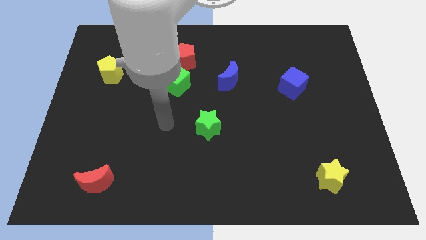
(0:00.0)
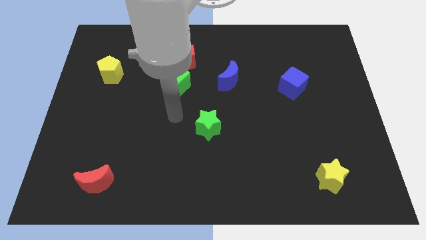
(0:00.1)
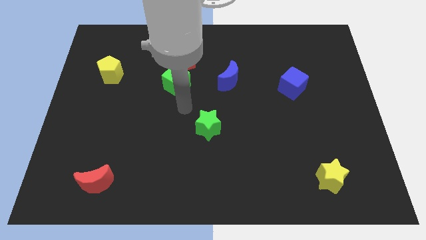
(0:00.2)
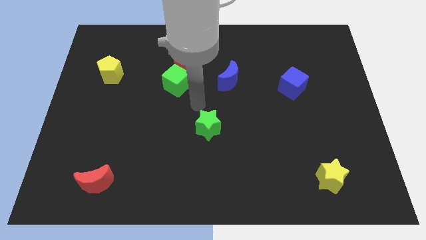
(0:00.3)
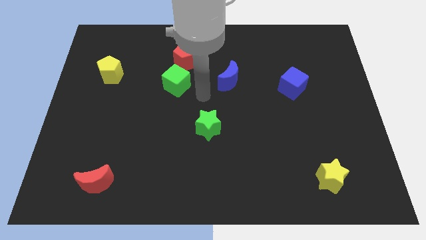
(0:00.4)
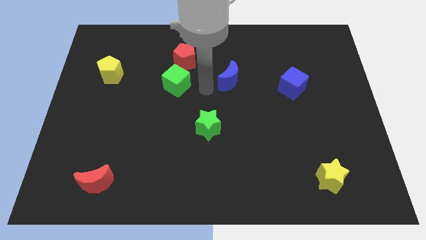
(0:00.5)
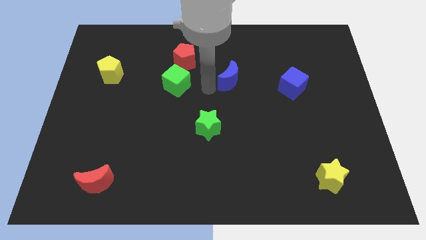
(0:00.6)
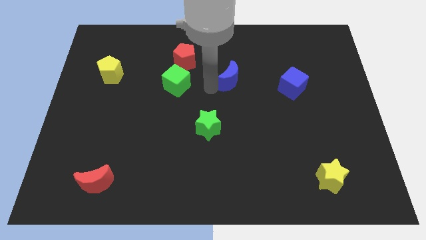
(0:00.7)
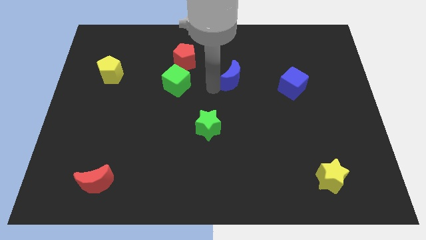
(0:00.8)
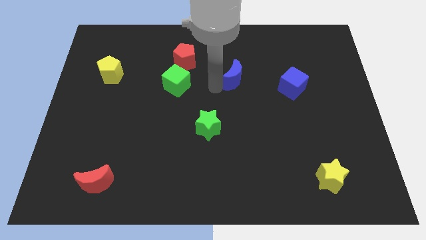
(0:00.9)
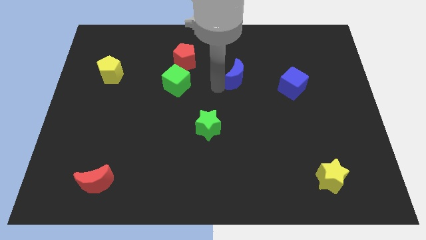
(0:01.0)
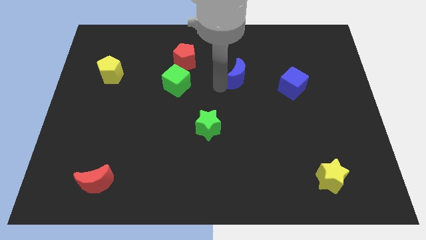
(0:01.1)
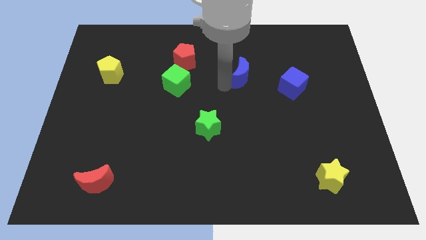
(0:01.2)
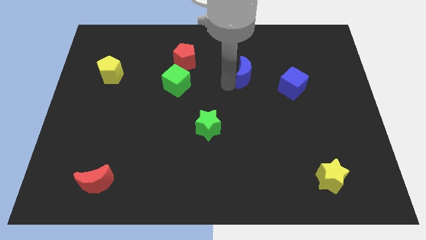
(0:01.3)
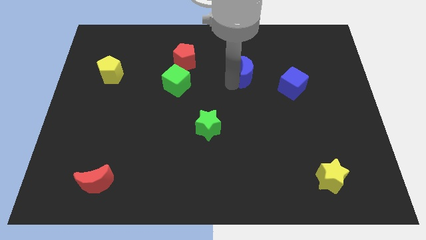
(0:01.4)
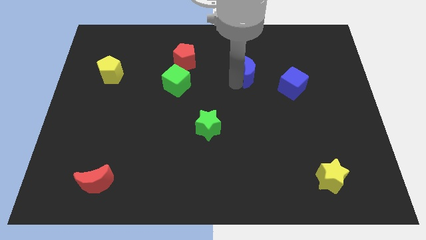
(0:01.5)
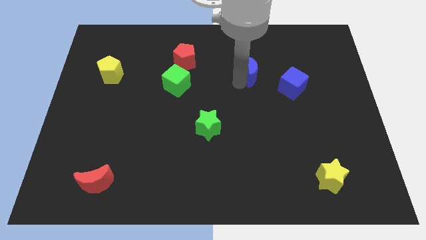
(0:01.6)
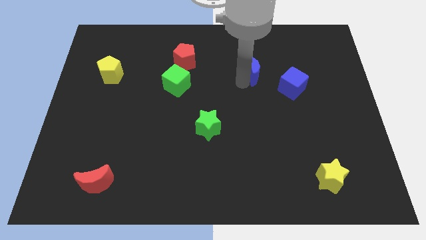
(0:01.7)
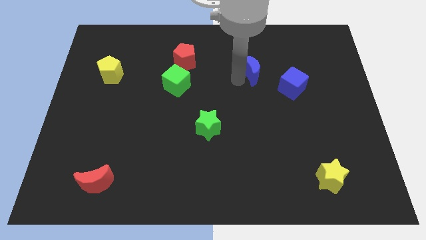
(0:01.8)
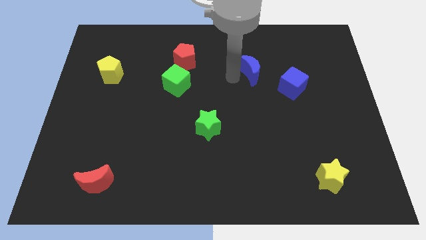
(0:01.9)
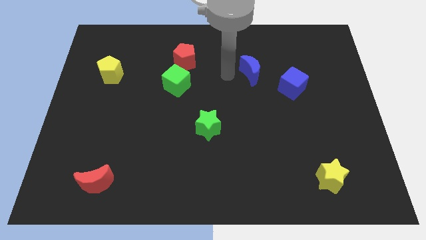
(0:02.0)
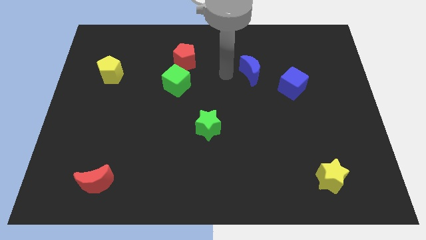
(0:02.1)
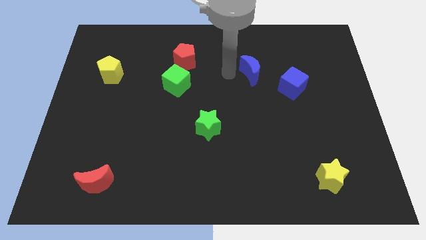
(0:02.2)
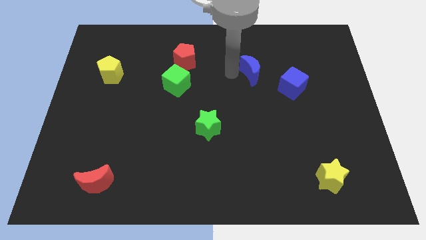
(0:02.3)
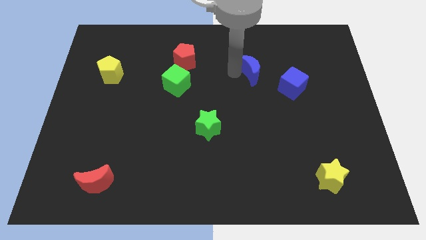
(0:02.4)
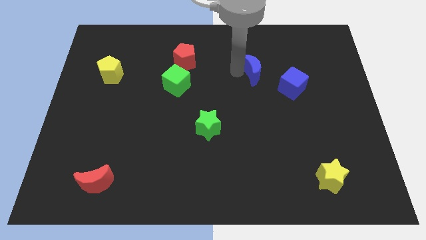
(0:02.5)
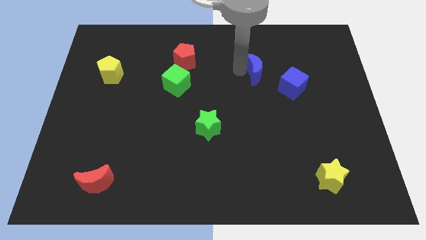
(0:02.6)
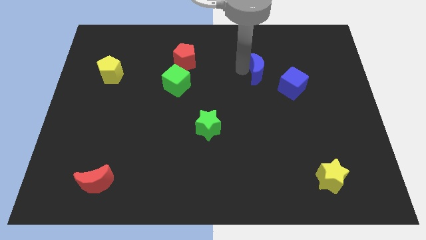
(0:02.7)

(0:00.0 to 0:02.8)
slide the blue moon right somewhat

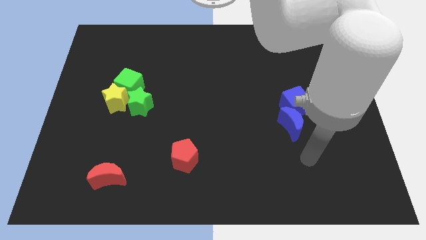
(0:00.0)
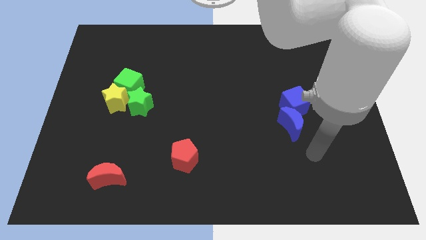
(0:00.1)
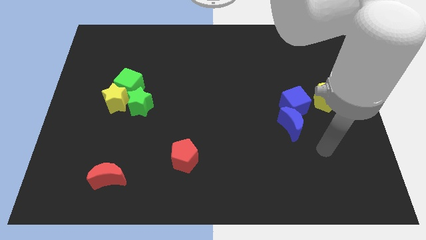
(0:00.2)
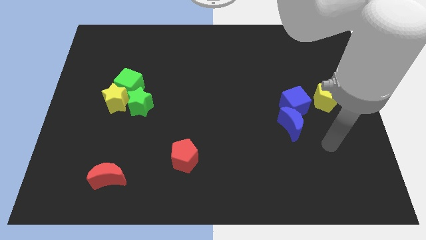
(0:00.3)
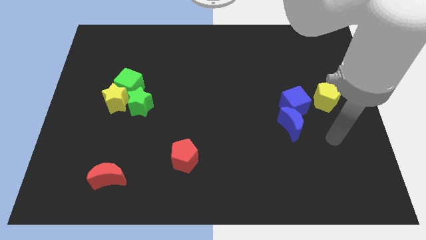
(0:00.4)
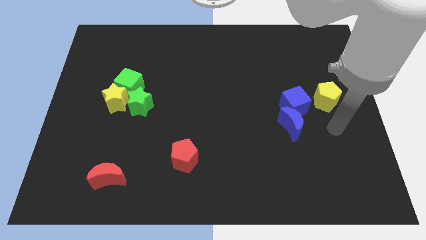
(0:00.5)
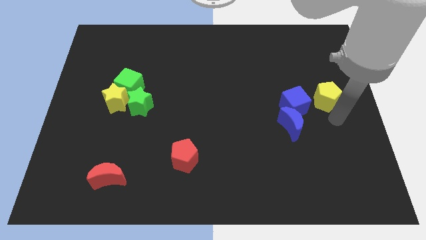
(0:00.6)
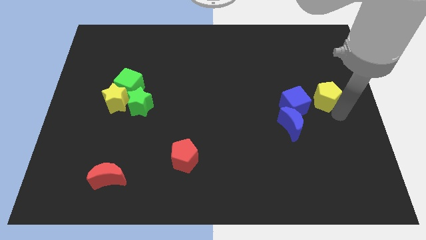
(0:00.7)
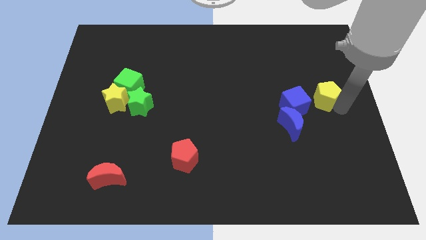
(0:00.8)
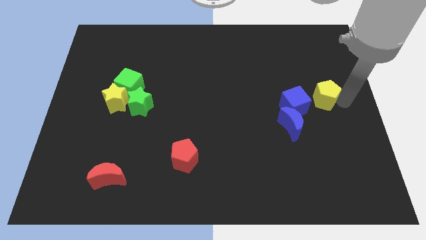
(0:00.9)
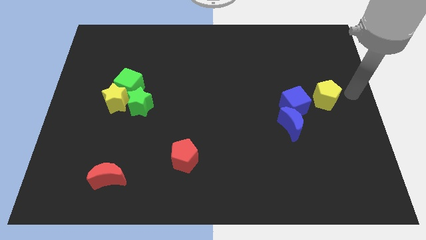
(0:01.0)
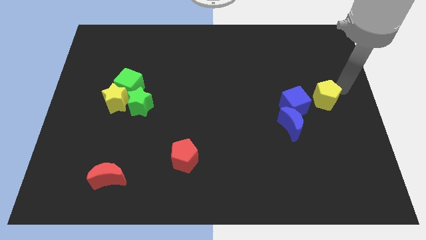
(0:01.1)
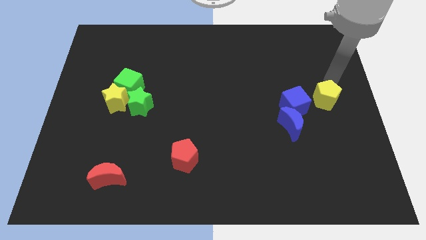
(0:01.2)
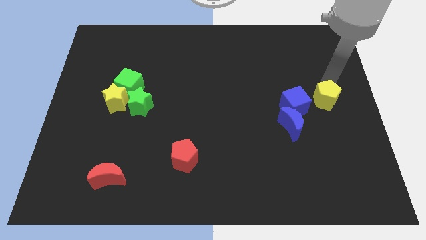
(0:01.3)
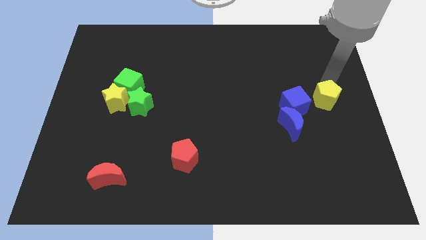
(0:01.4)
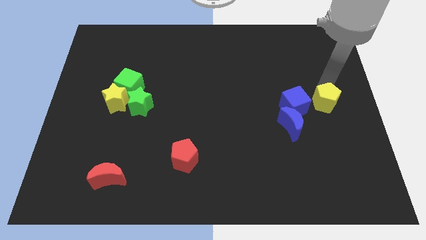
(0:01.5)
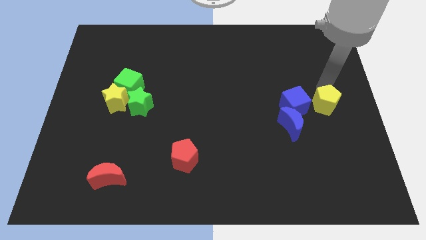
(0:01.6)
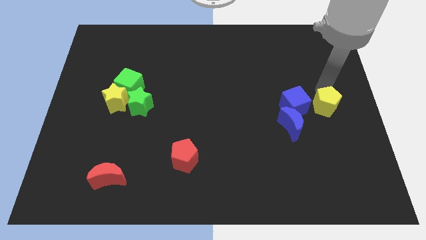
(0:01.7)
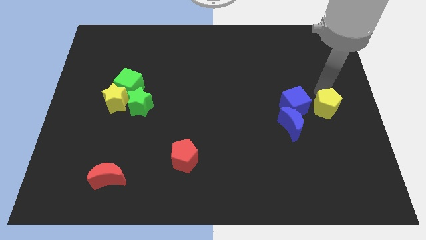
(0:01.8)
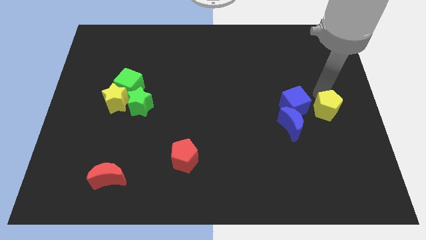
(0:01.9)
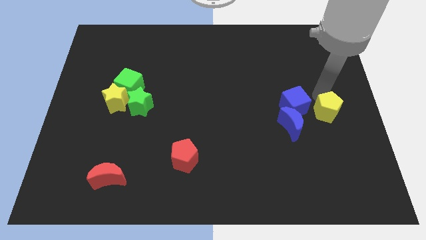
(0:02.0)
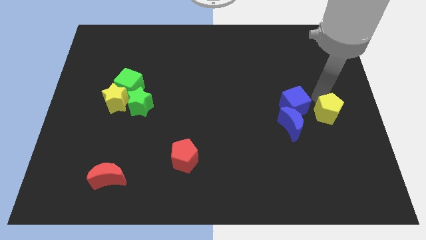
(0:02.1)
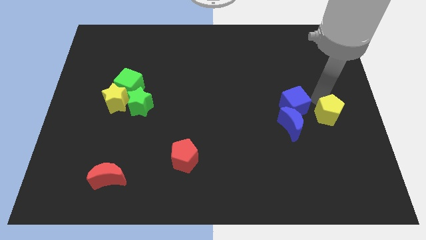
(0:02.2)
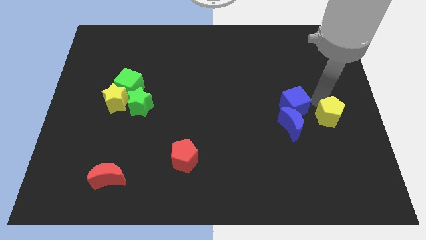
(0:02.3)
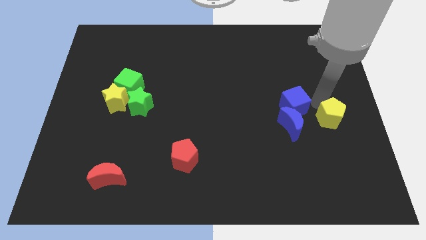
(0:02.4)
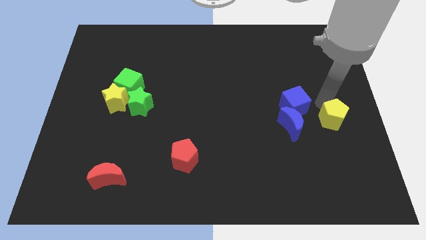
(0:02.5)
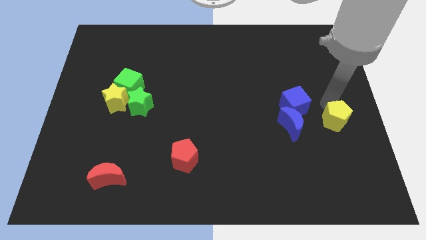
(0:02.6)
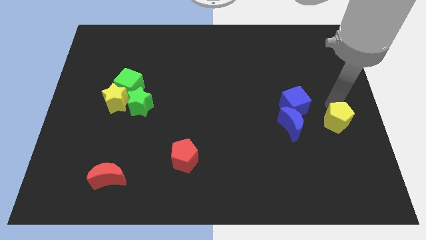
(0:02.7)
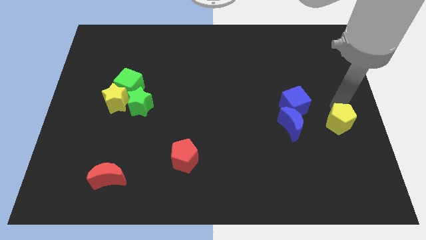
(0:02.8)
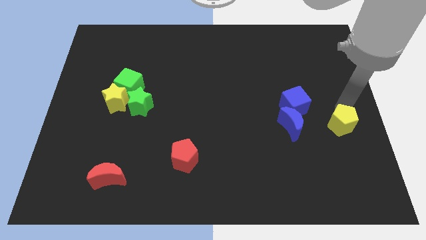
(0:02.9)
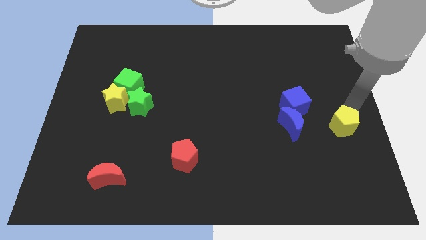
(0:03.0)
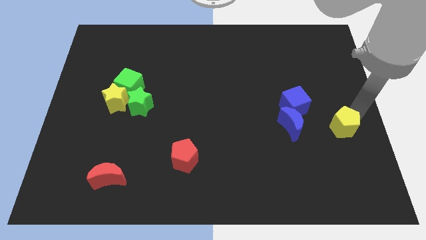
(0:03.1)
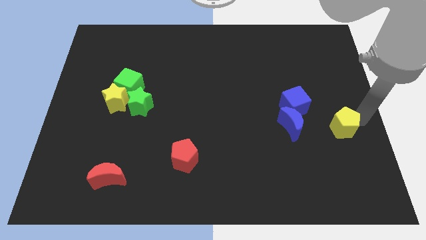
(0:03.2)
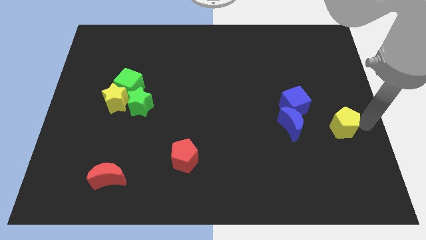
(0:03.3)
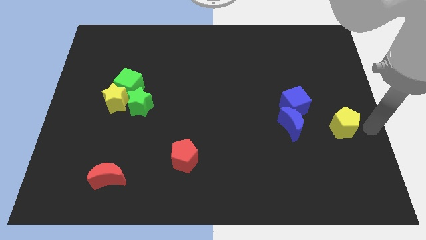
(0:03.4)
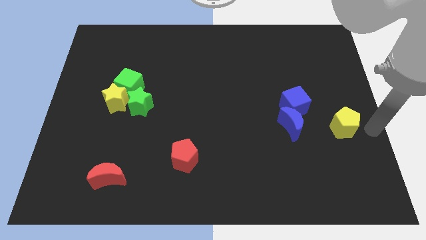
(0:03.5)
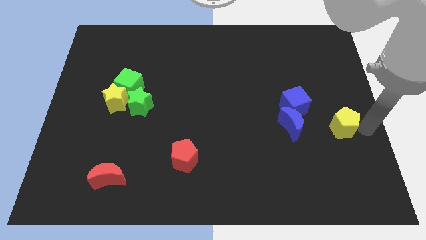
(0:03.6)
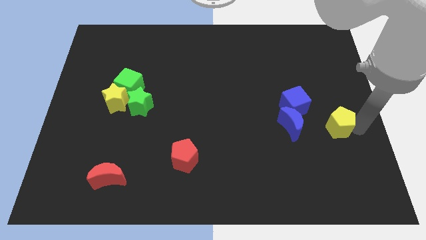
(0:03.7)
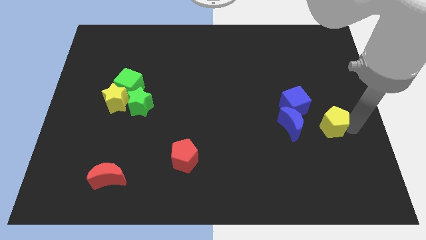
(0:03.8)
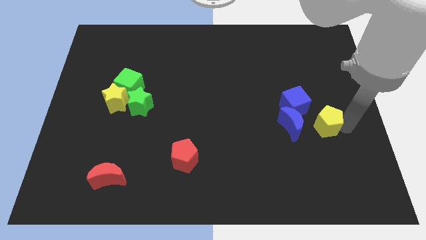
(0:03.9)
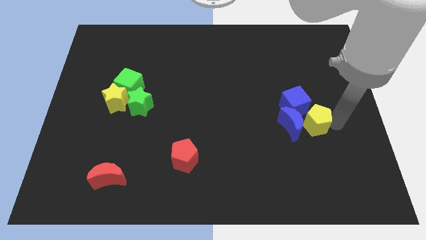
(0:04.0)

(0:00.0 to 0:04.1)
slightly move the yellow pentagon diagonally down and to the left

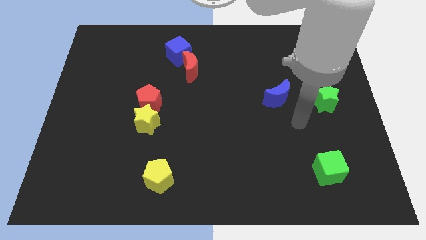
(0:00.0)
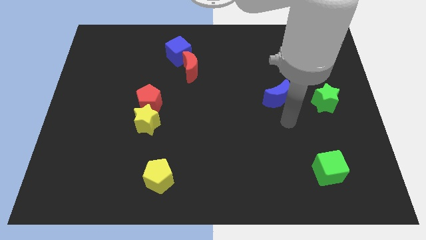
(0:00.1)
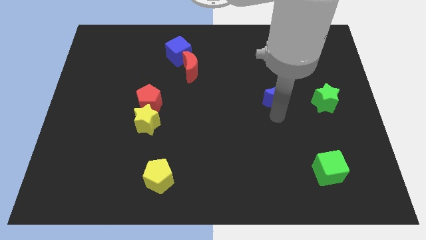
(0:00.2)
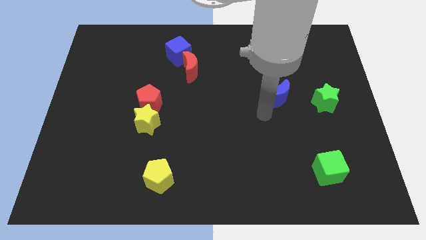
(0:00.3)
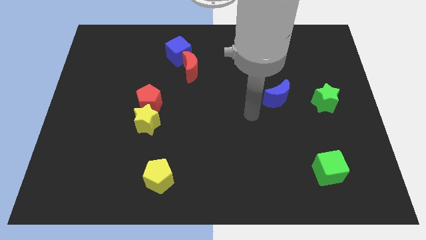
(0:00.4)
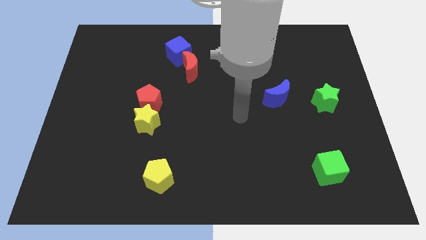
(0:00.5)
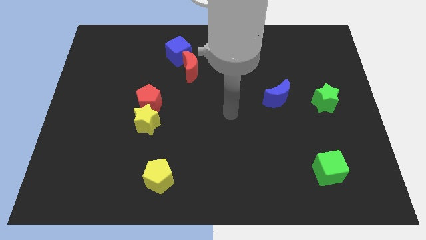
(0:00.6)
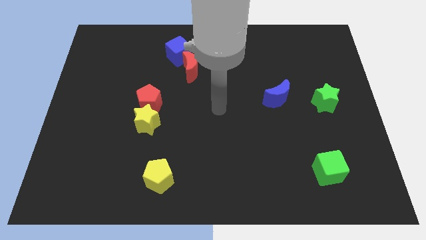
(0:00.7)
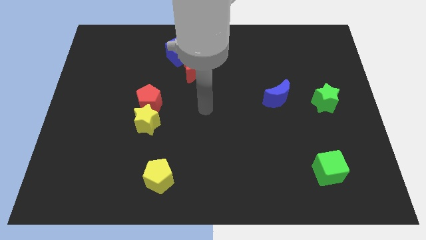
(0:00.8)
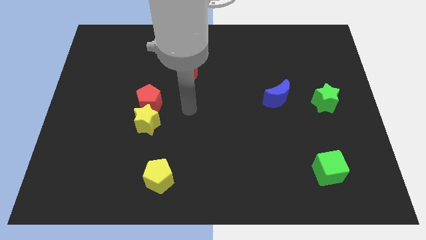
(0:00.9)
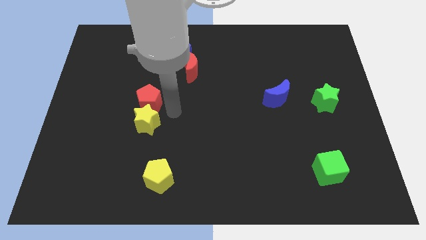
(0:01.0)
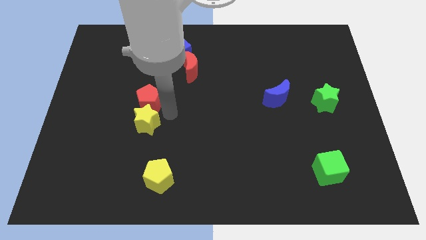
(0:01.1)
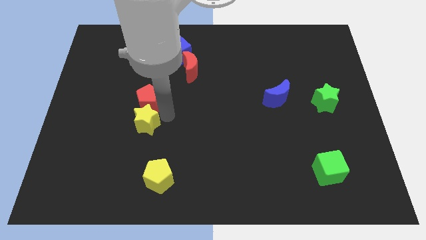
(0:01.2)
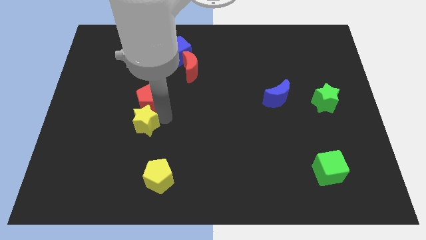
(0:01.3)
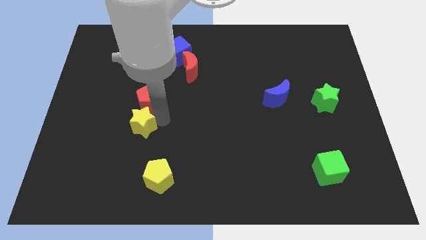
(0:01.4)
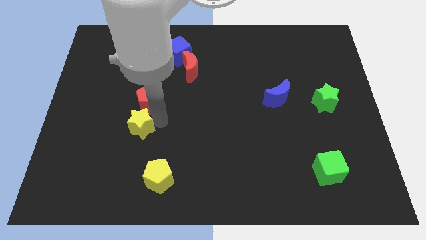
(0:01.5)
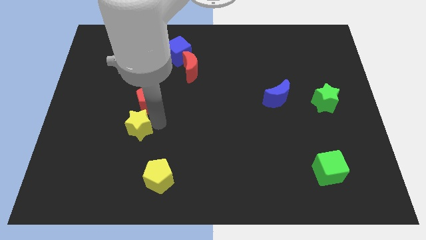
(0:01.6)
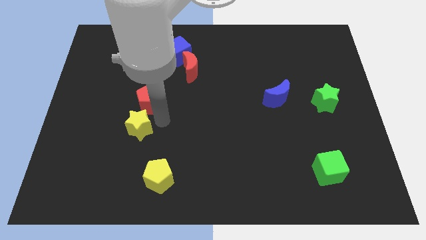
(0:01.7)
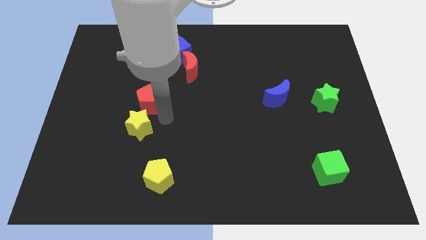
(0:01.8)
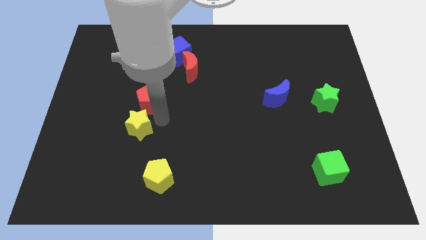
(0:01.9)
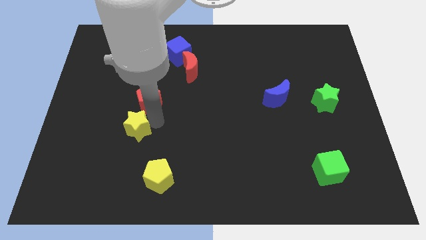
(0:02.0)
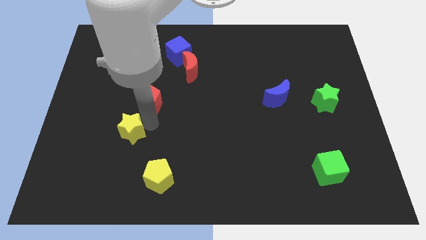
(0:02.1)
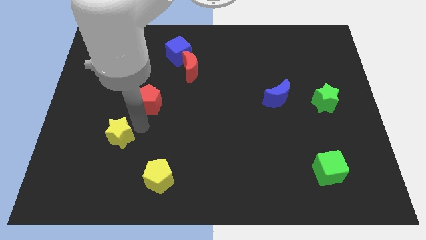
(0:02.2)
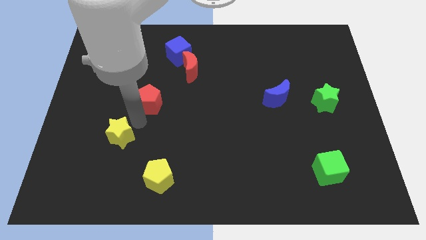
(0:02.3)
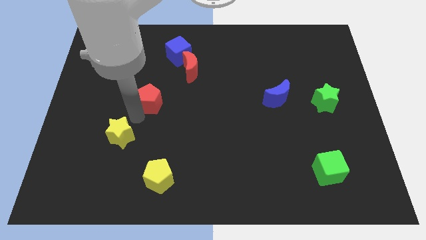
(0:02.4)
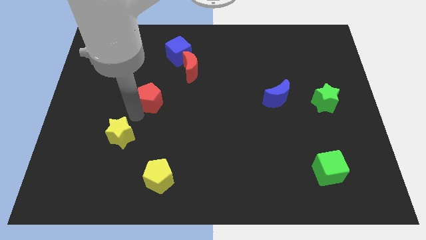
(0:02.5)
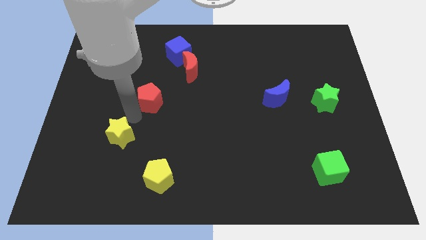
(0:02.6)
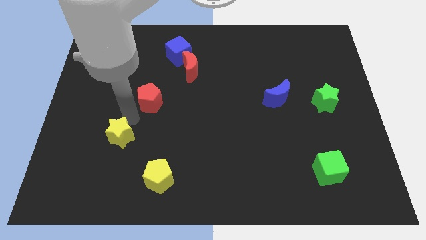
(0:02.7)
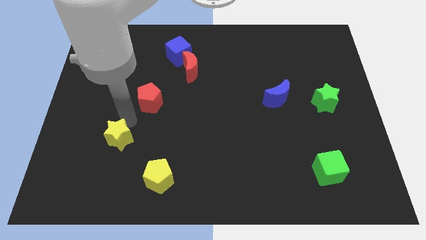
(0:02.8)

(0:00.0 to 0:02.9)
move the yellow star slightly down and left diagonally
